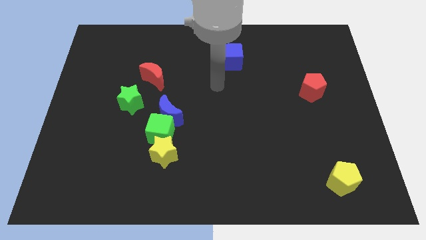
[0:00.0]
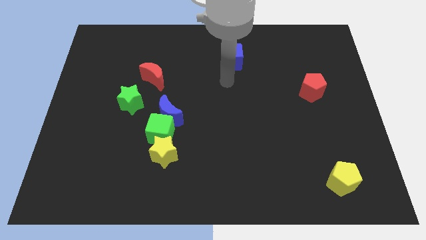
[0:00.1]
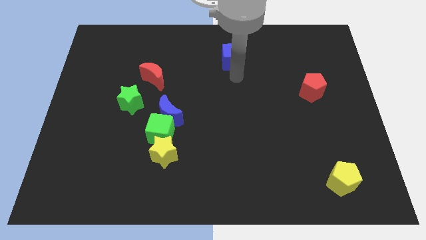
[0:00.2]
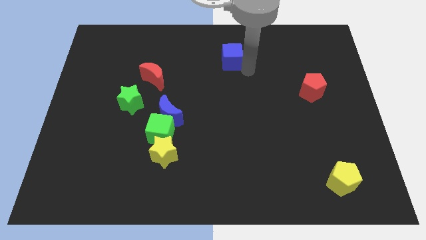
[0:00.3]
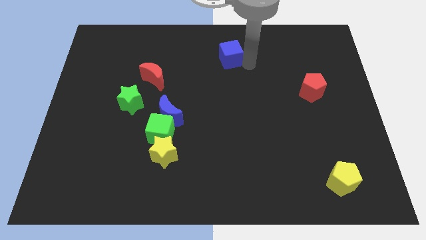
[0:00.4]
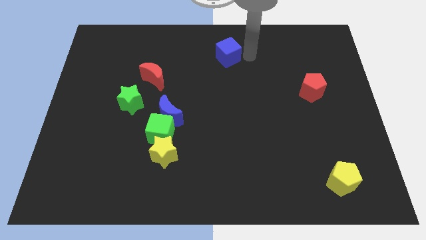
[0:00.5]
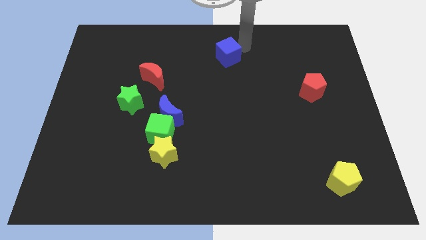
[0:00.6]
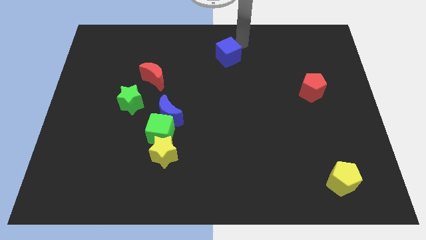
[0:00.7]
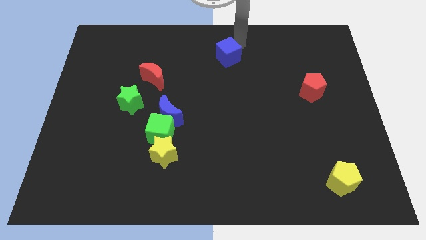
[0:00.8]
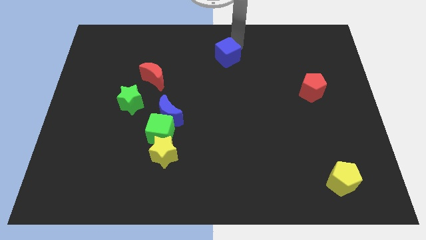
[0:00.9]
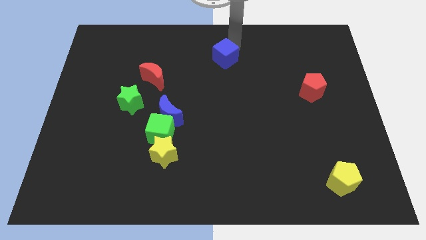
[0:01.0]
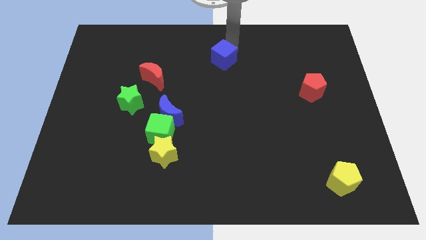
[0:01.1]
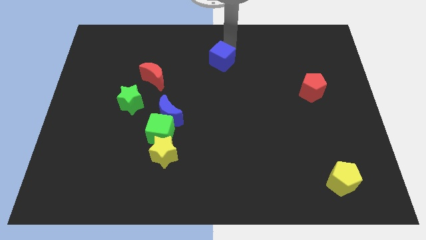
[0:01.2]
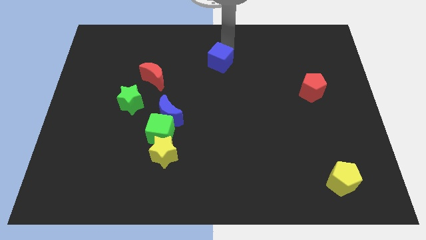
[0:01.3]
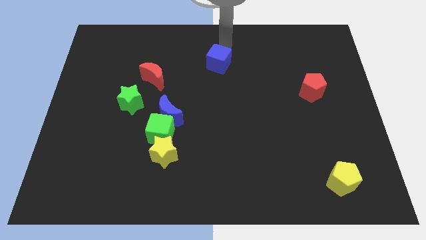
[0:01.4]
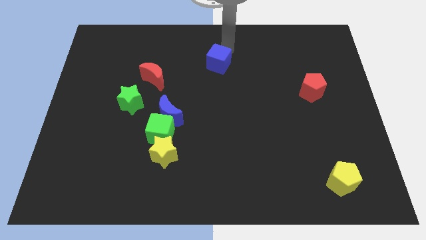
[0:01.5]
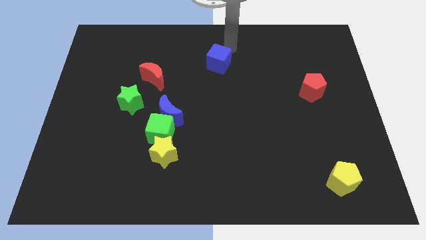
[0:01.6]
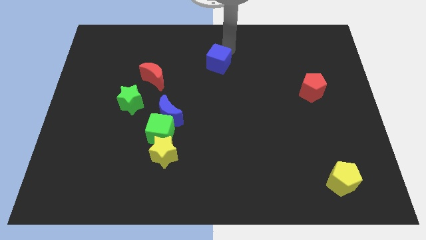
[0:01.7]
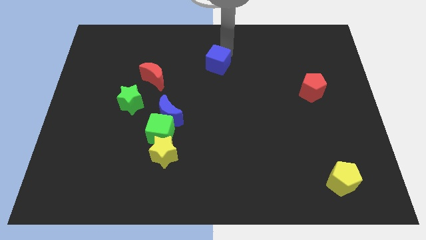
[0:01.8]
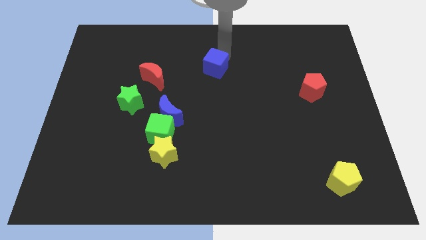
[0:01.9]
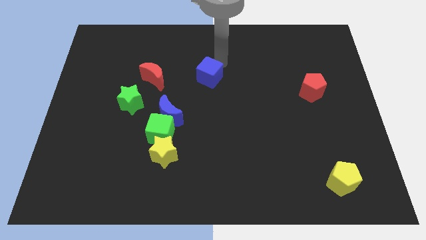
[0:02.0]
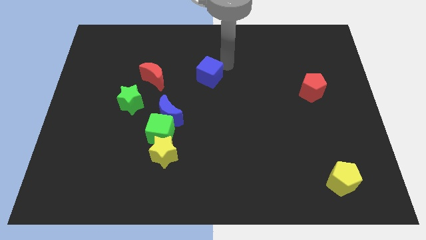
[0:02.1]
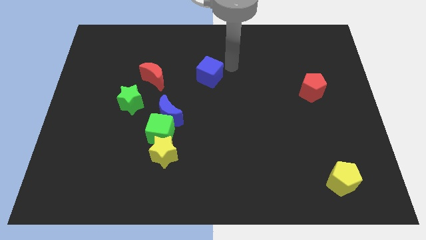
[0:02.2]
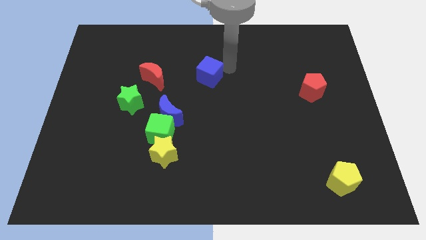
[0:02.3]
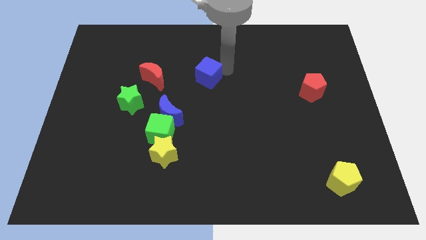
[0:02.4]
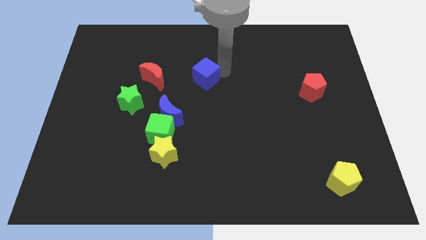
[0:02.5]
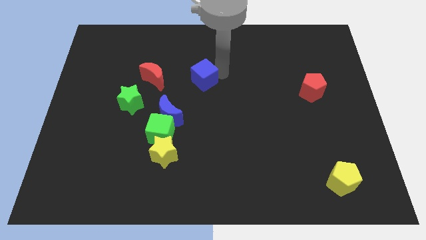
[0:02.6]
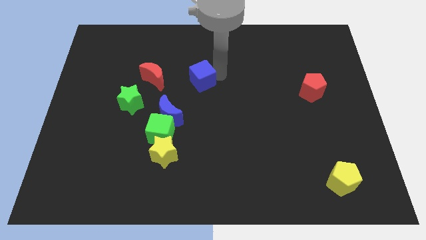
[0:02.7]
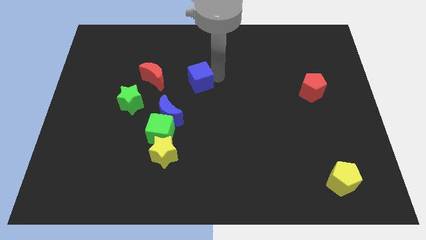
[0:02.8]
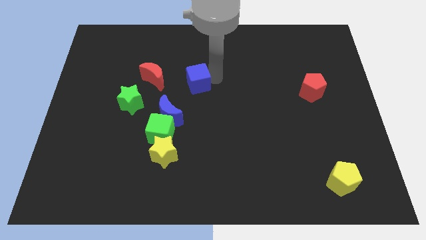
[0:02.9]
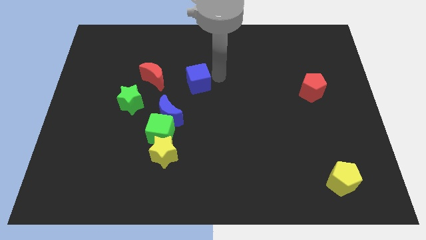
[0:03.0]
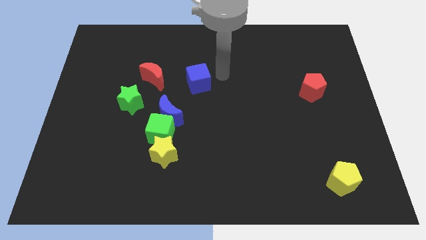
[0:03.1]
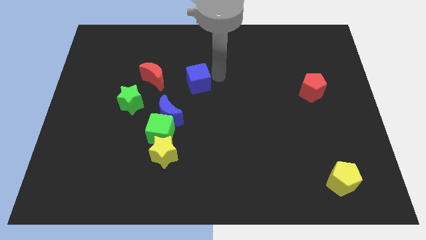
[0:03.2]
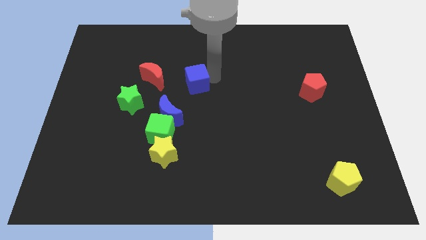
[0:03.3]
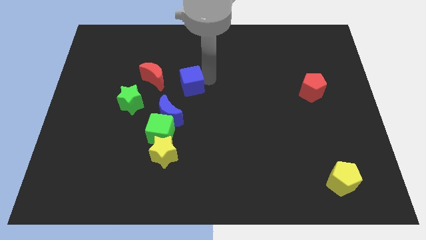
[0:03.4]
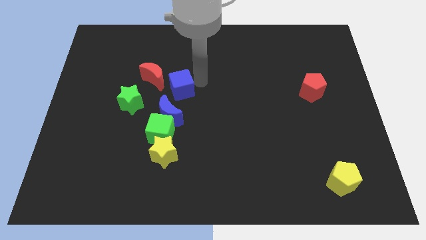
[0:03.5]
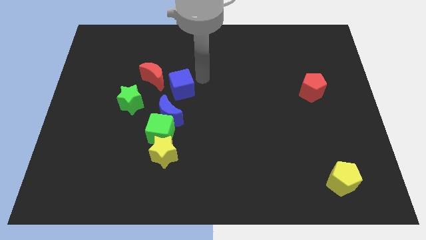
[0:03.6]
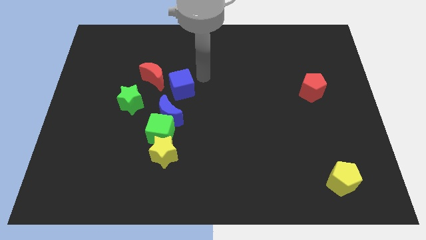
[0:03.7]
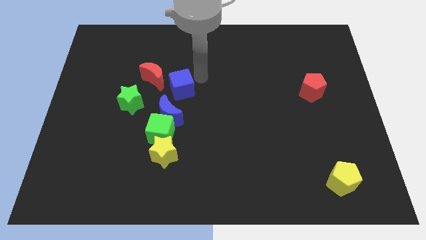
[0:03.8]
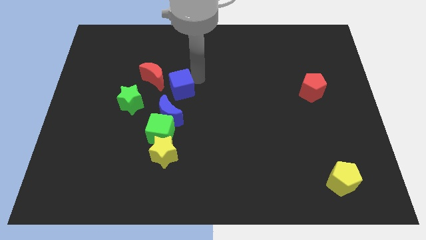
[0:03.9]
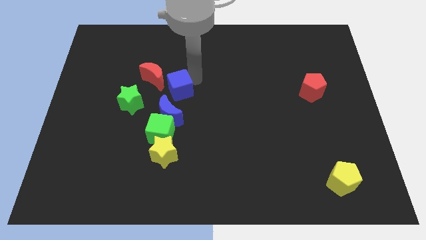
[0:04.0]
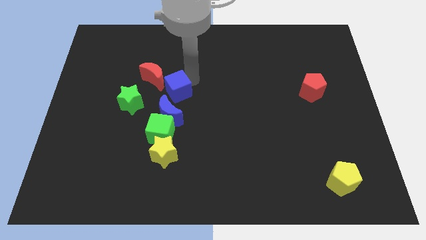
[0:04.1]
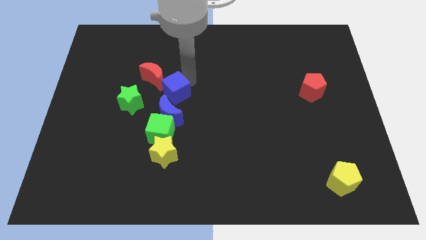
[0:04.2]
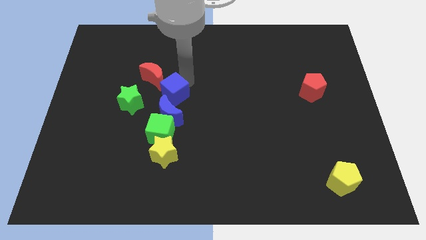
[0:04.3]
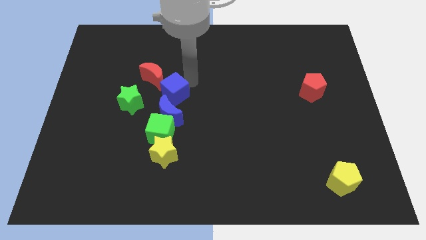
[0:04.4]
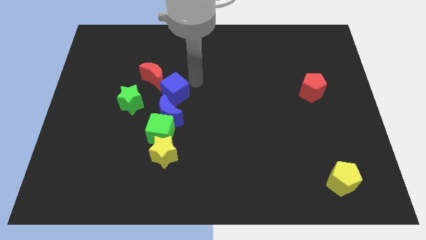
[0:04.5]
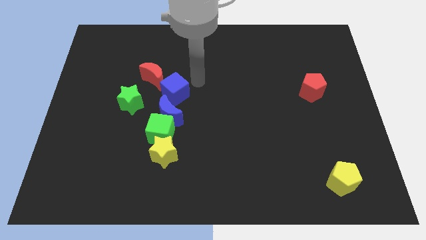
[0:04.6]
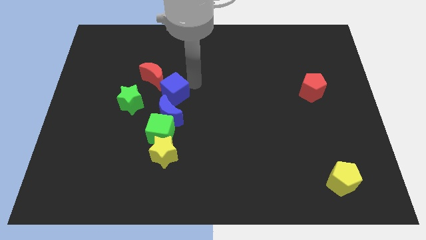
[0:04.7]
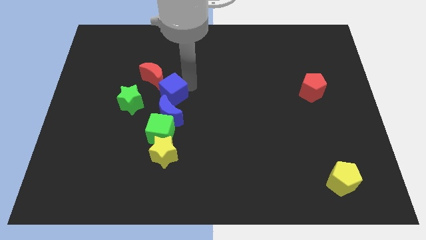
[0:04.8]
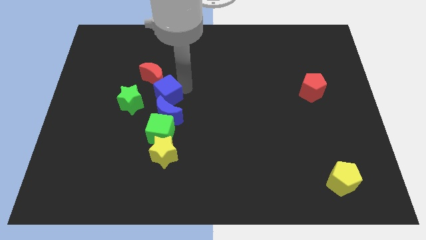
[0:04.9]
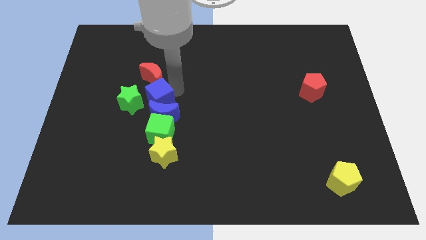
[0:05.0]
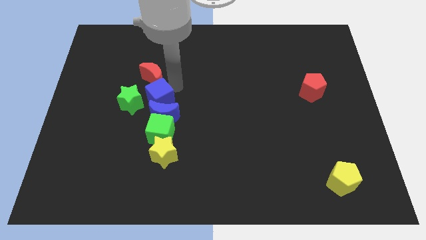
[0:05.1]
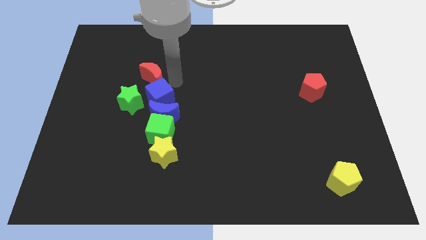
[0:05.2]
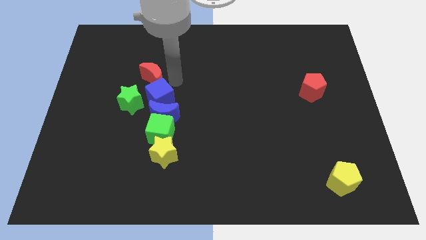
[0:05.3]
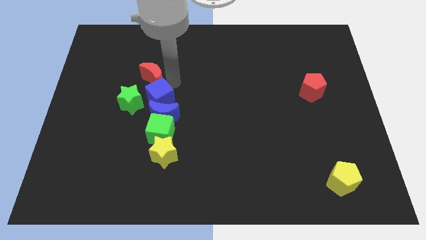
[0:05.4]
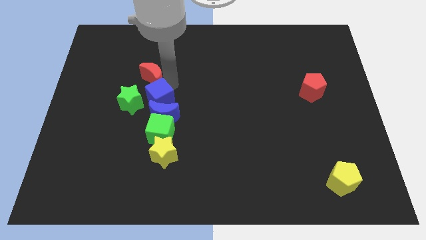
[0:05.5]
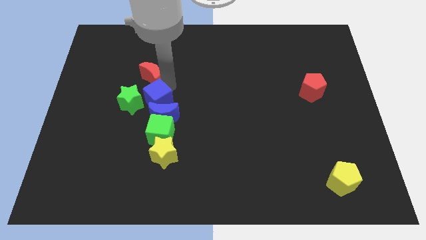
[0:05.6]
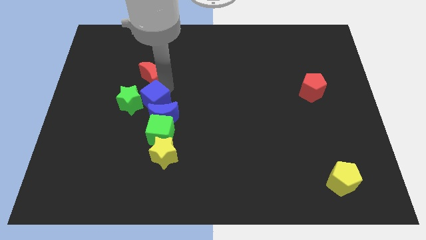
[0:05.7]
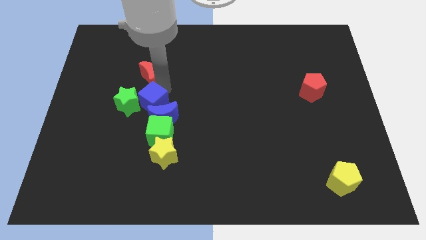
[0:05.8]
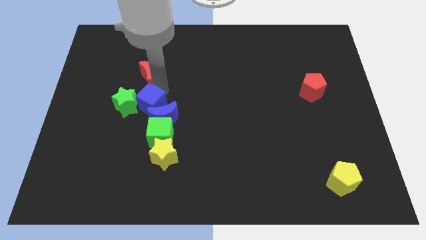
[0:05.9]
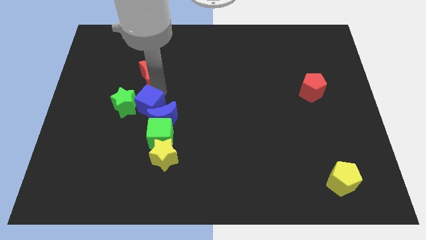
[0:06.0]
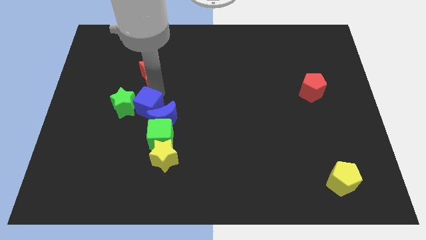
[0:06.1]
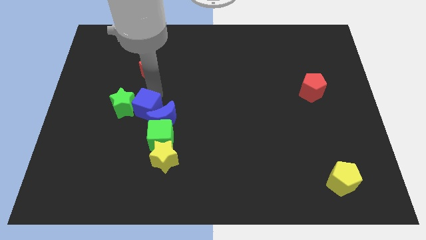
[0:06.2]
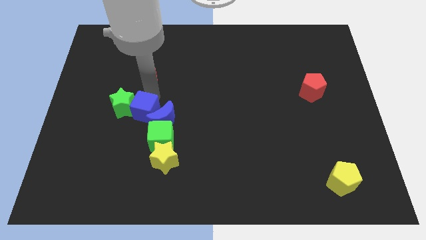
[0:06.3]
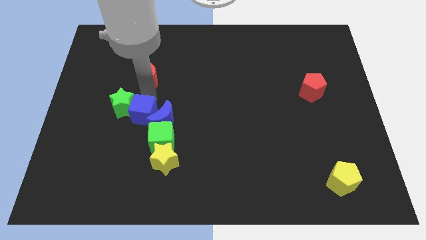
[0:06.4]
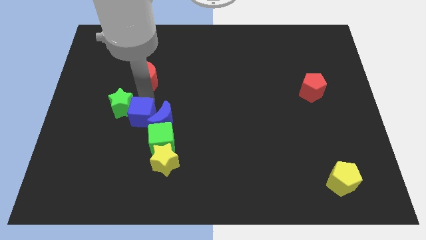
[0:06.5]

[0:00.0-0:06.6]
push the blue cube to the bottom left side of the blue moon
